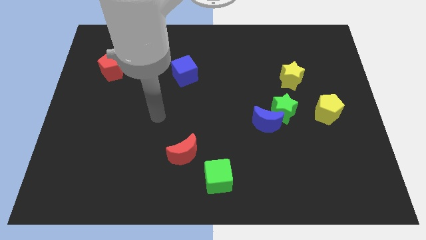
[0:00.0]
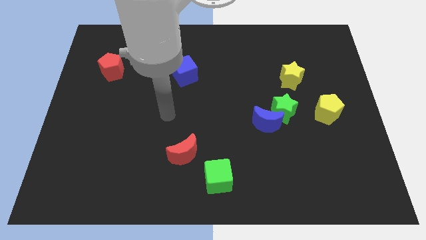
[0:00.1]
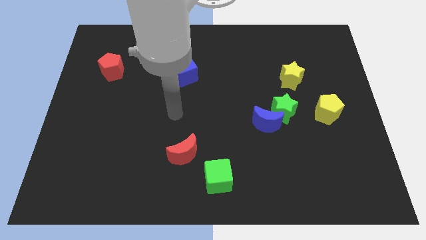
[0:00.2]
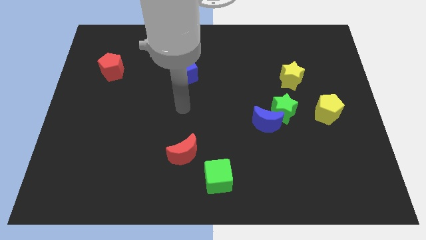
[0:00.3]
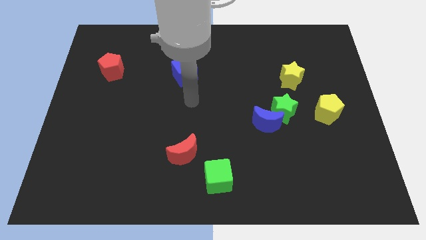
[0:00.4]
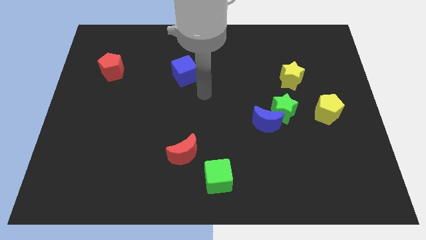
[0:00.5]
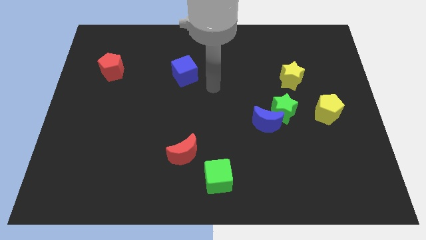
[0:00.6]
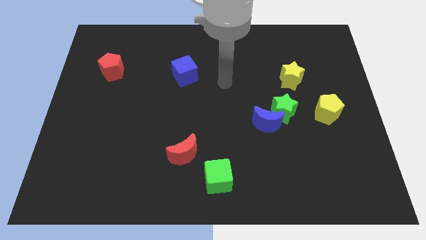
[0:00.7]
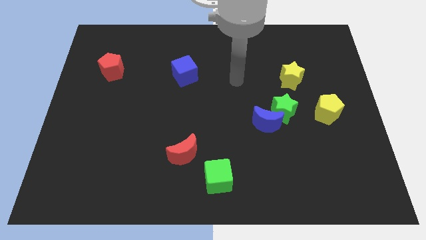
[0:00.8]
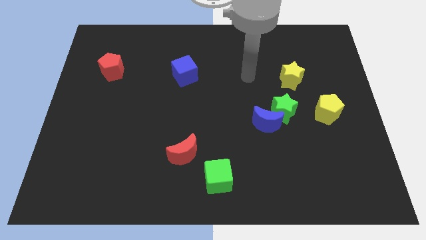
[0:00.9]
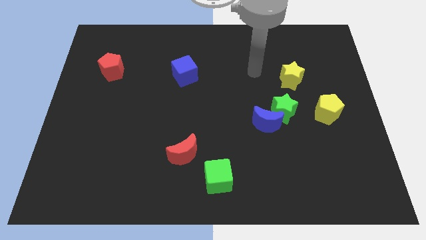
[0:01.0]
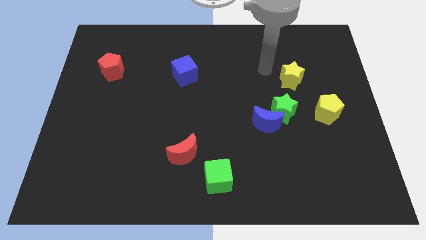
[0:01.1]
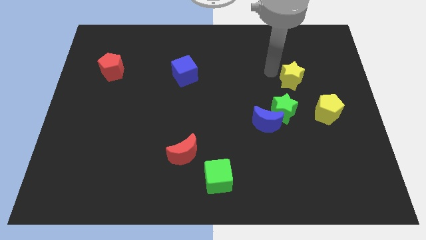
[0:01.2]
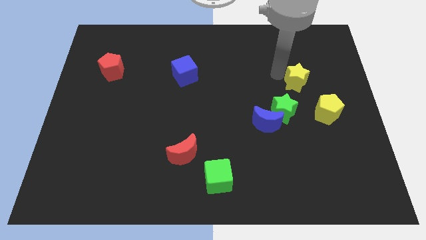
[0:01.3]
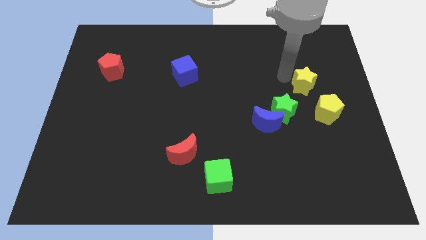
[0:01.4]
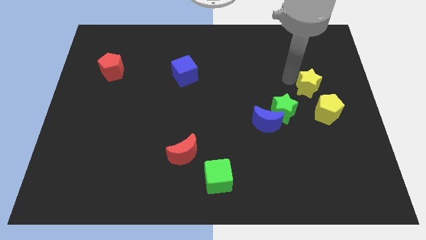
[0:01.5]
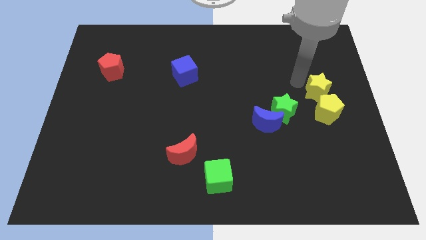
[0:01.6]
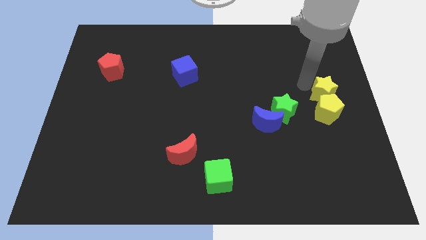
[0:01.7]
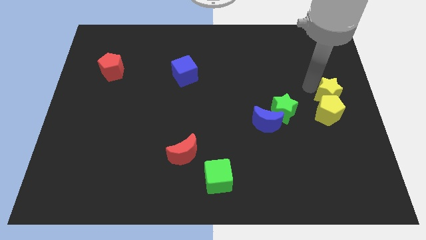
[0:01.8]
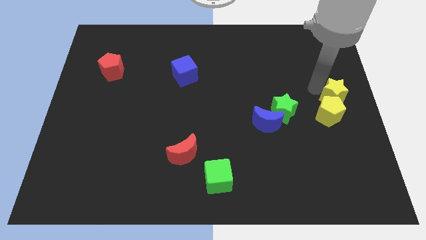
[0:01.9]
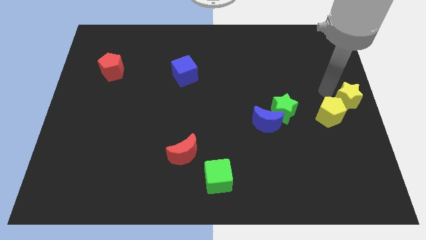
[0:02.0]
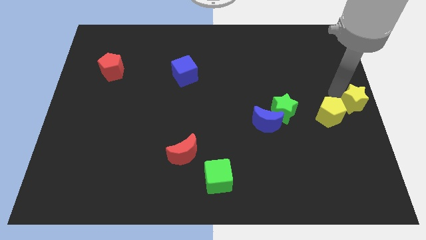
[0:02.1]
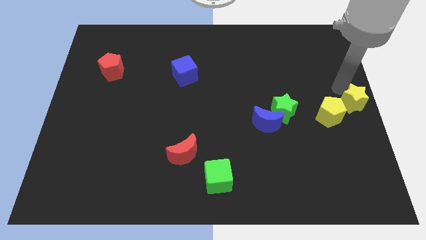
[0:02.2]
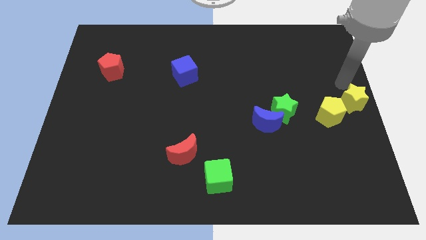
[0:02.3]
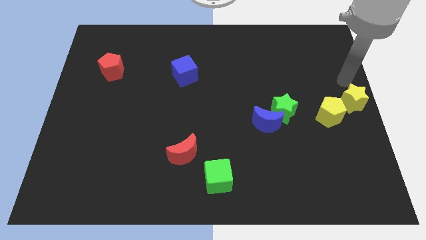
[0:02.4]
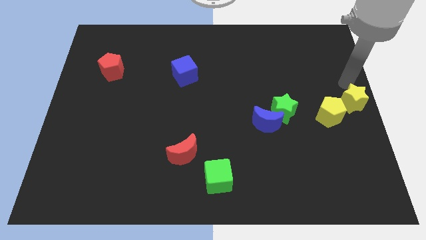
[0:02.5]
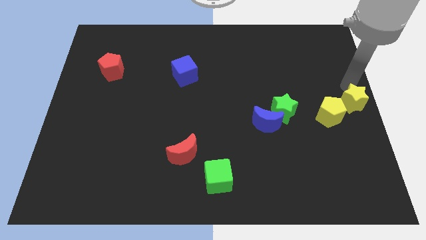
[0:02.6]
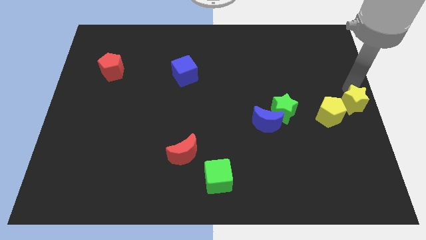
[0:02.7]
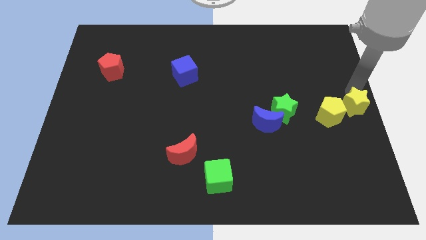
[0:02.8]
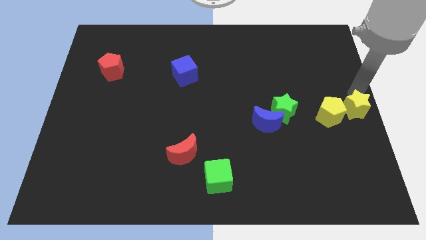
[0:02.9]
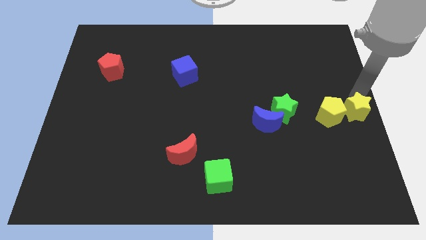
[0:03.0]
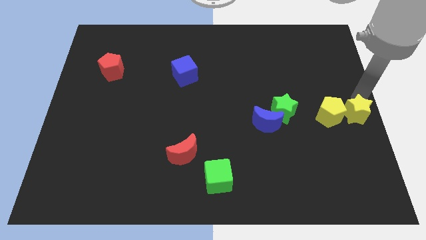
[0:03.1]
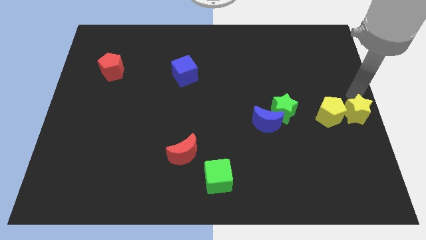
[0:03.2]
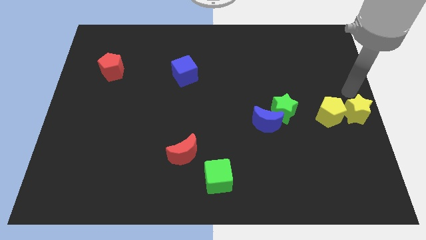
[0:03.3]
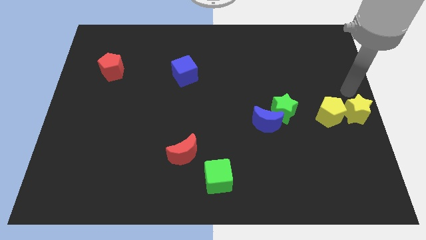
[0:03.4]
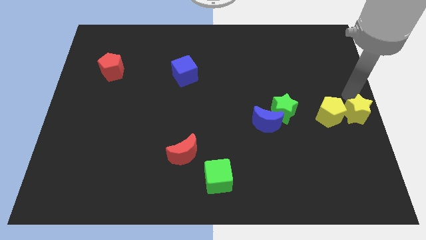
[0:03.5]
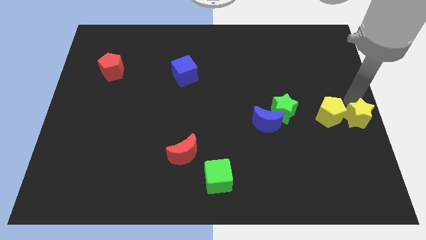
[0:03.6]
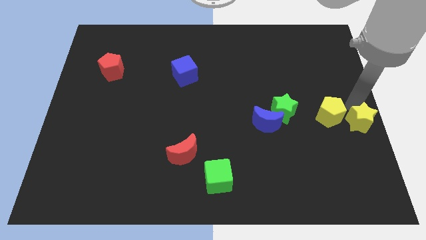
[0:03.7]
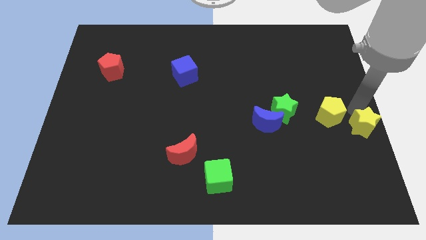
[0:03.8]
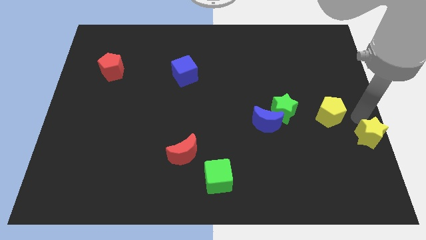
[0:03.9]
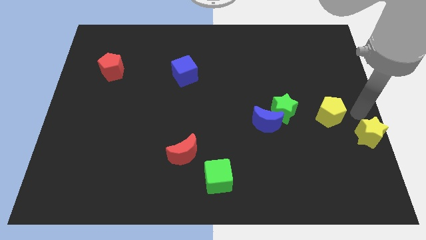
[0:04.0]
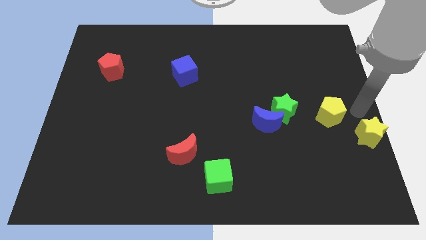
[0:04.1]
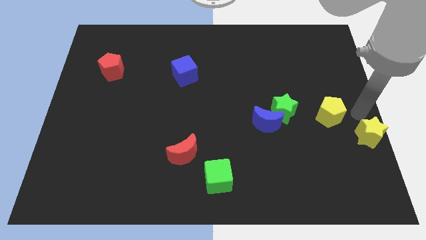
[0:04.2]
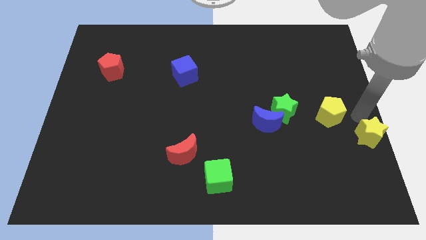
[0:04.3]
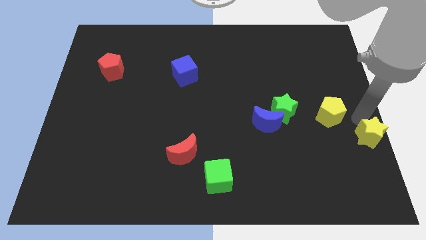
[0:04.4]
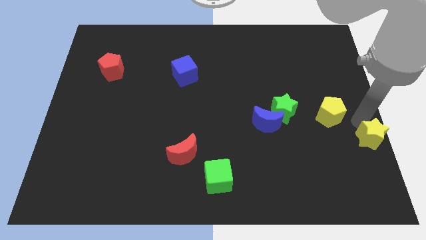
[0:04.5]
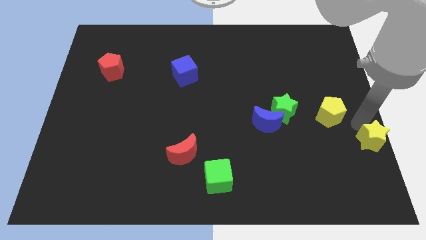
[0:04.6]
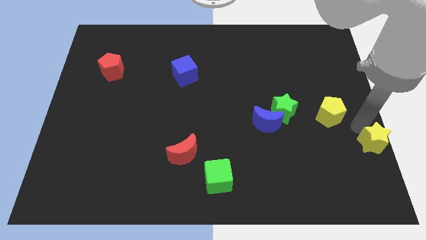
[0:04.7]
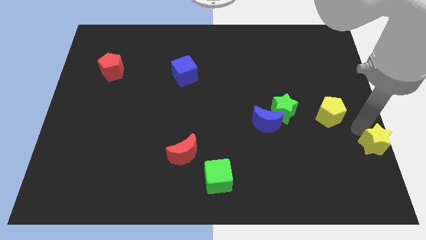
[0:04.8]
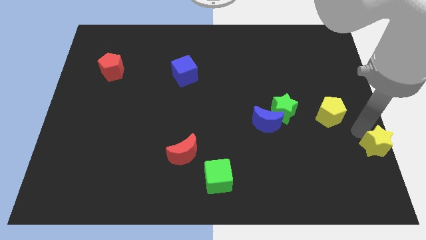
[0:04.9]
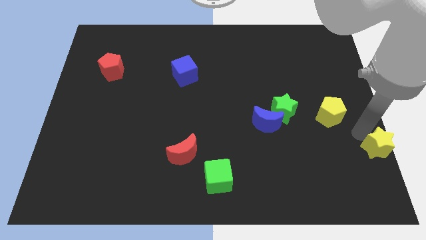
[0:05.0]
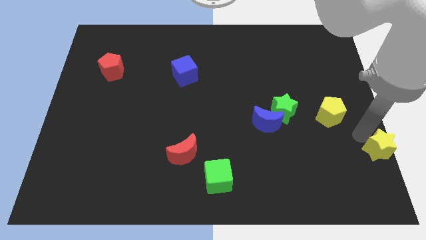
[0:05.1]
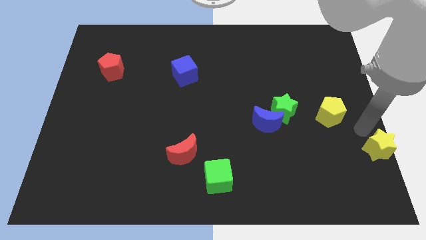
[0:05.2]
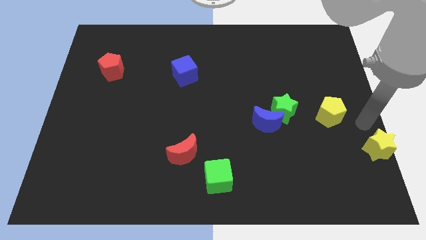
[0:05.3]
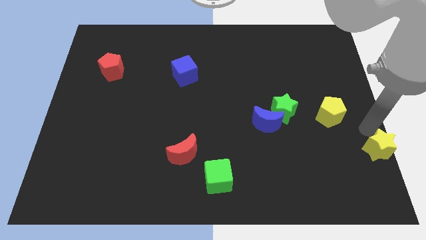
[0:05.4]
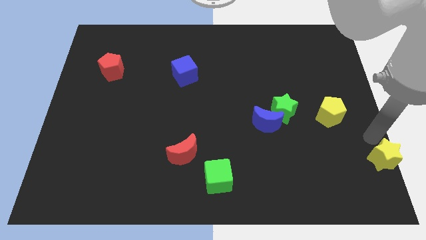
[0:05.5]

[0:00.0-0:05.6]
move the yellow star to the bottom right
